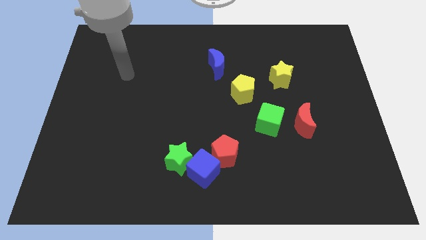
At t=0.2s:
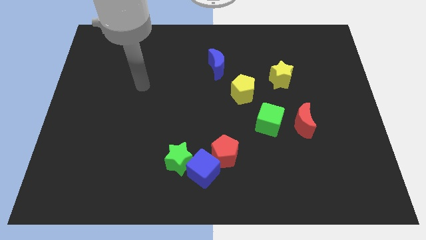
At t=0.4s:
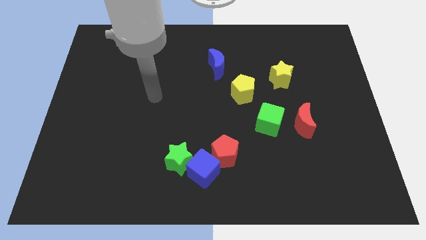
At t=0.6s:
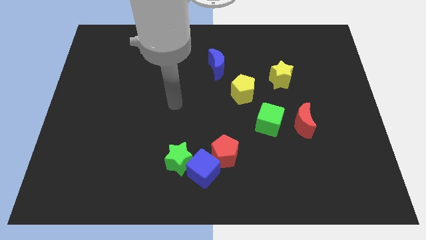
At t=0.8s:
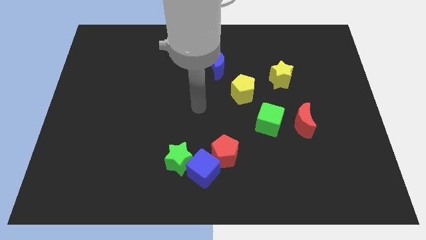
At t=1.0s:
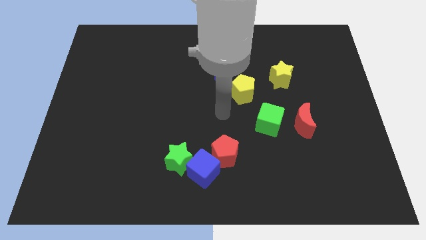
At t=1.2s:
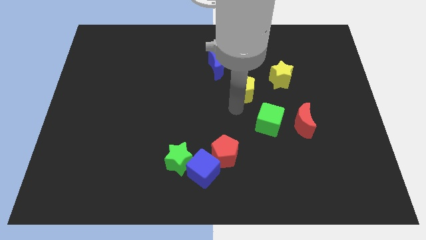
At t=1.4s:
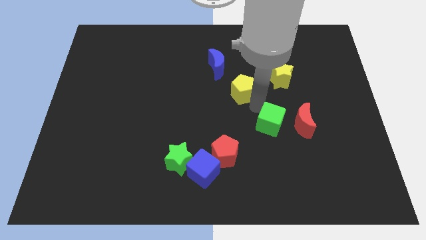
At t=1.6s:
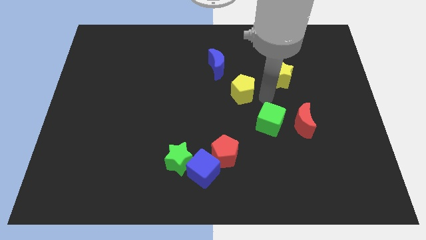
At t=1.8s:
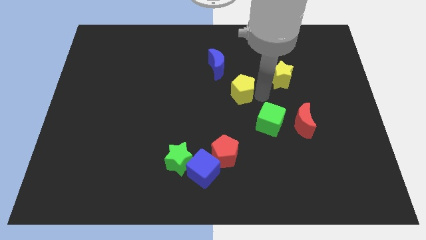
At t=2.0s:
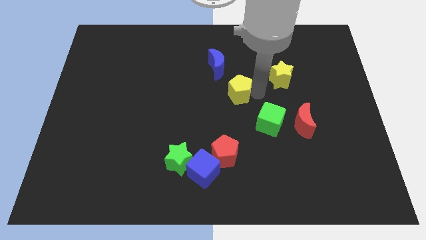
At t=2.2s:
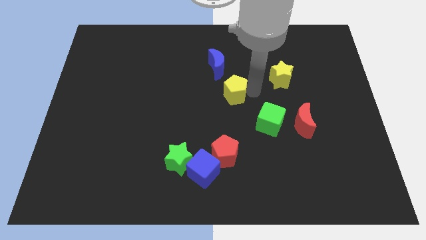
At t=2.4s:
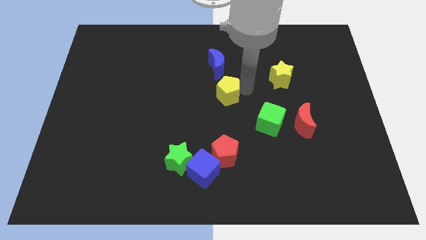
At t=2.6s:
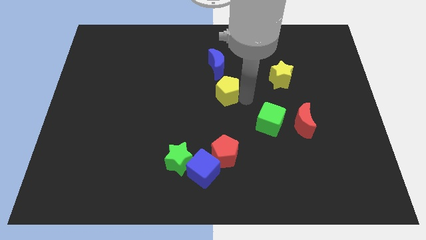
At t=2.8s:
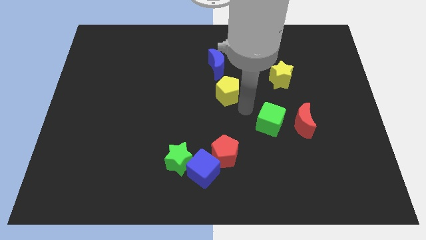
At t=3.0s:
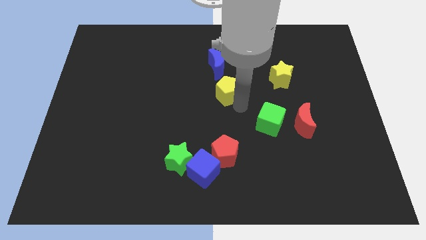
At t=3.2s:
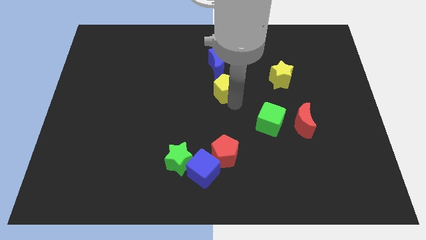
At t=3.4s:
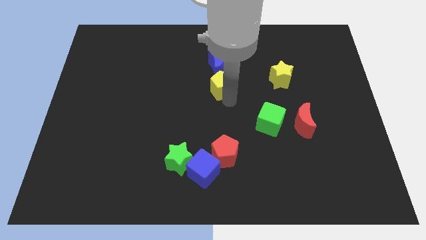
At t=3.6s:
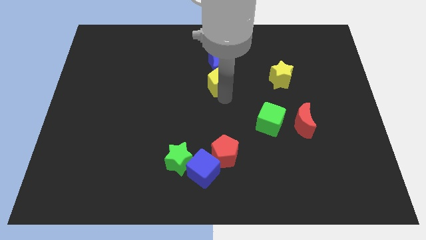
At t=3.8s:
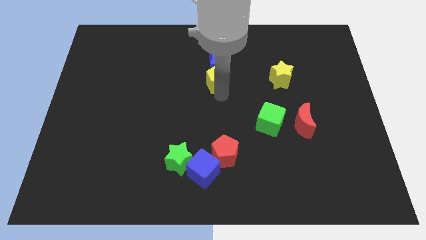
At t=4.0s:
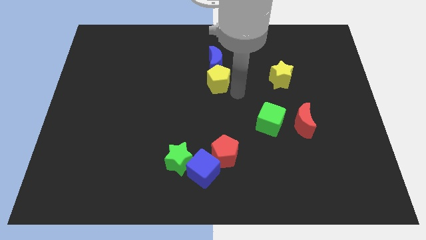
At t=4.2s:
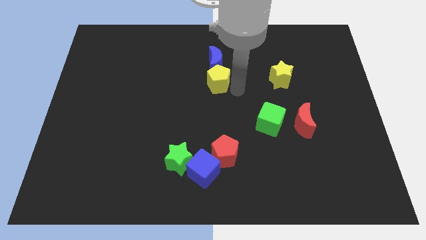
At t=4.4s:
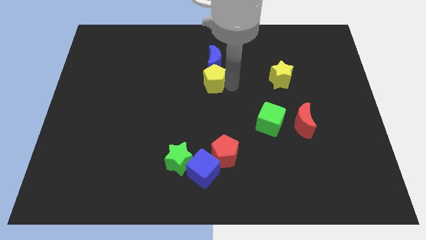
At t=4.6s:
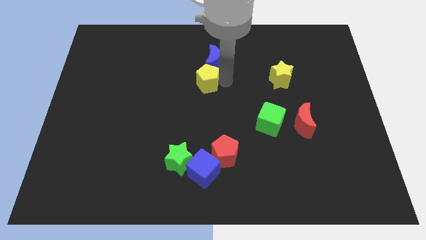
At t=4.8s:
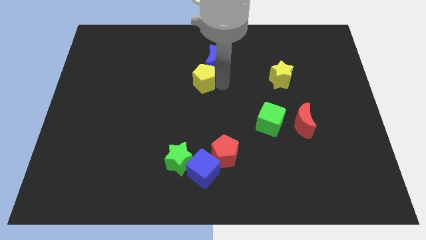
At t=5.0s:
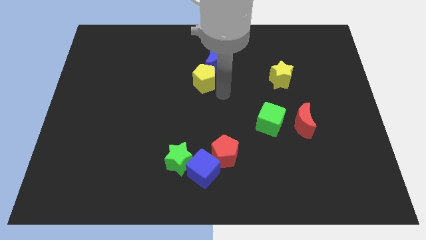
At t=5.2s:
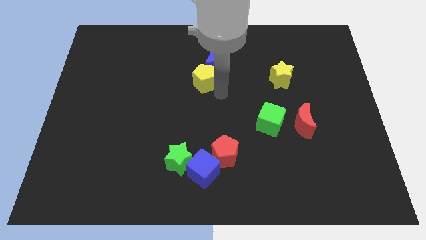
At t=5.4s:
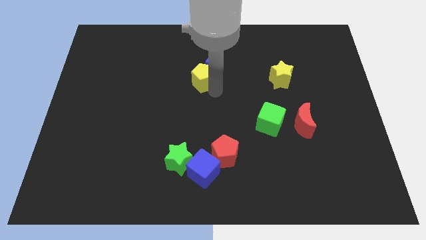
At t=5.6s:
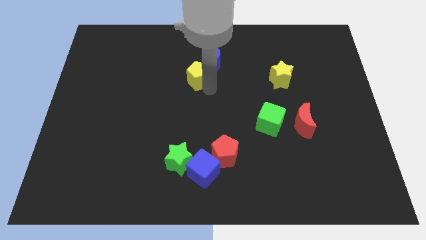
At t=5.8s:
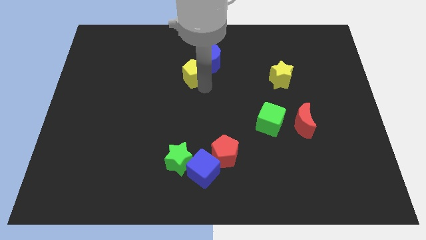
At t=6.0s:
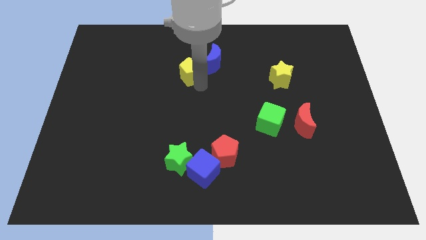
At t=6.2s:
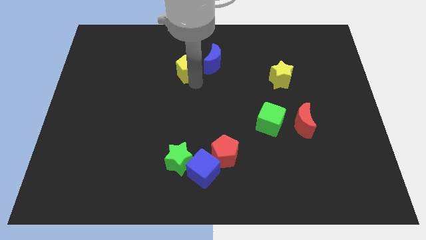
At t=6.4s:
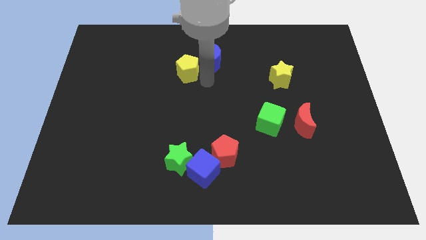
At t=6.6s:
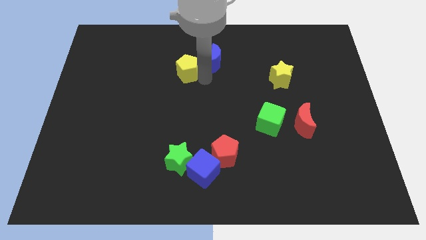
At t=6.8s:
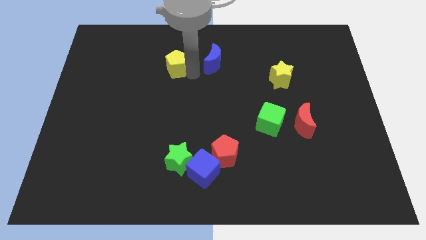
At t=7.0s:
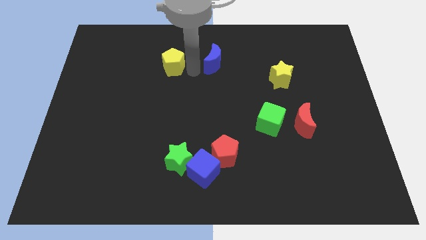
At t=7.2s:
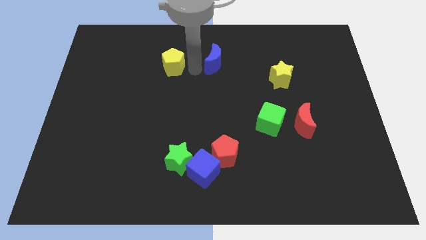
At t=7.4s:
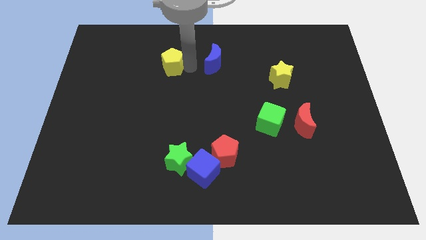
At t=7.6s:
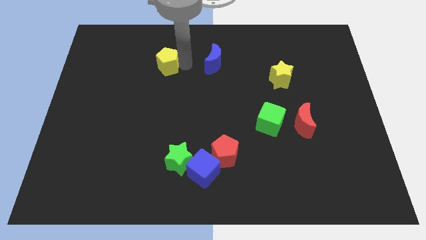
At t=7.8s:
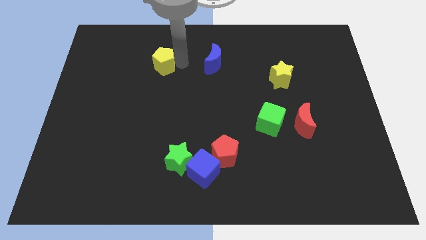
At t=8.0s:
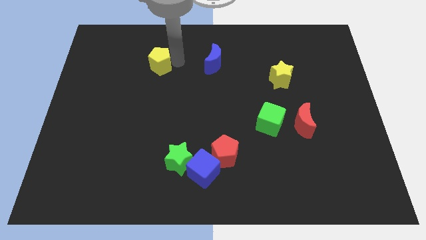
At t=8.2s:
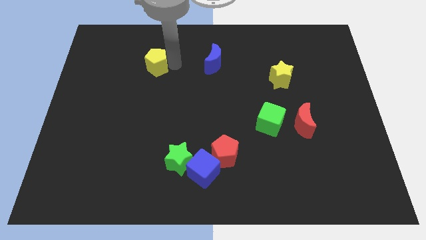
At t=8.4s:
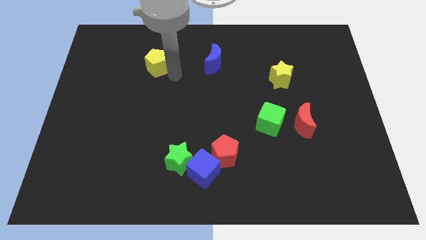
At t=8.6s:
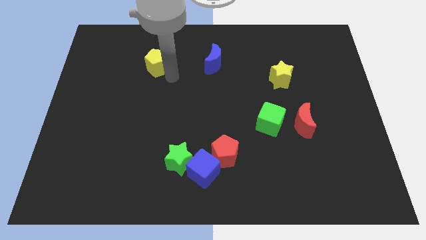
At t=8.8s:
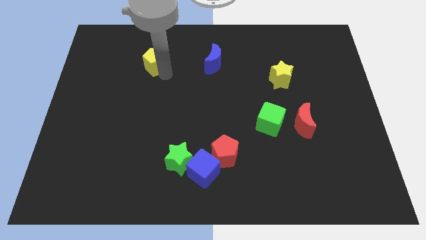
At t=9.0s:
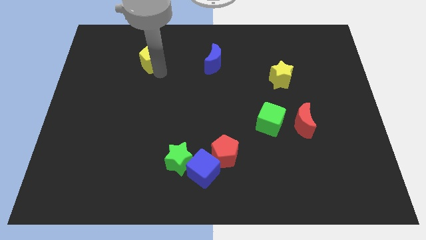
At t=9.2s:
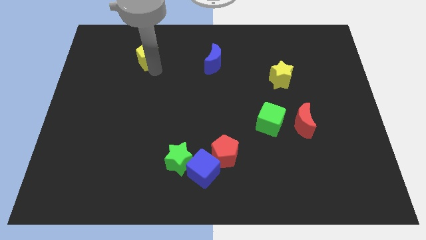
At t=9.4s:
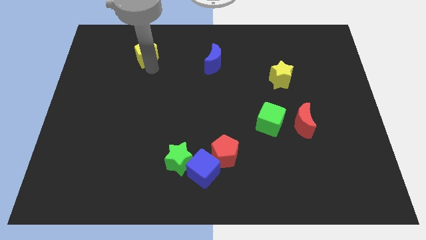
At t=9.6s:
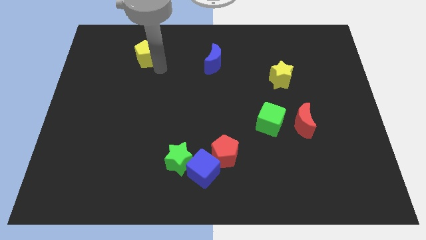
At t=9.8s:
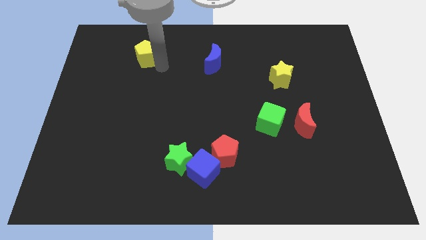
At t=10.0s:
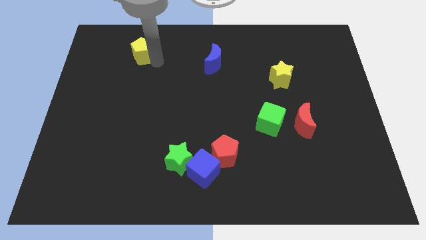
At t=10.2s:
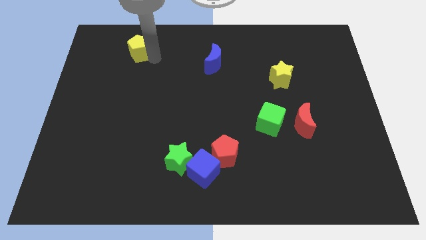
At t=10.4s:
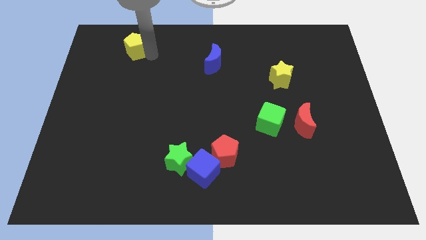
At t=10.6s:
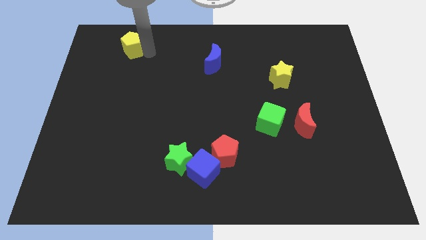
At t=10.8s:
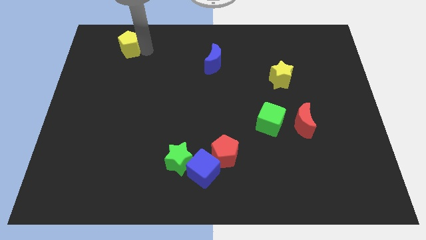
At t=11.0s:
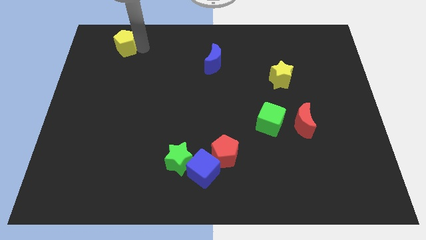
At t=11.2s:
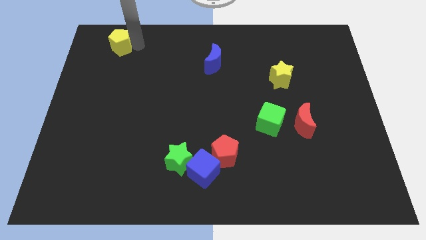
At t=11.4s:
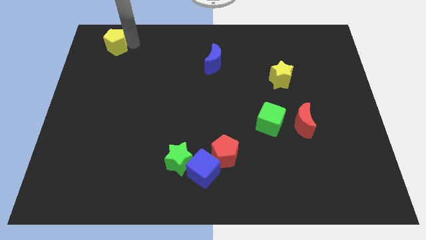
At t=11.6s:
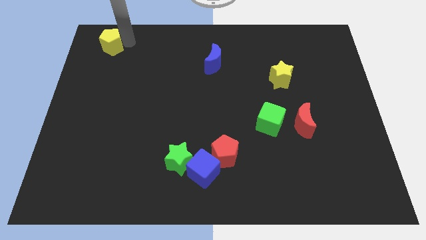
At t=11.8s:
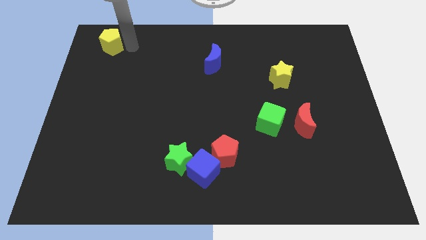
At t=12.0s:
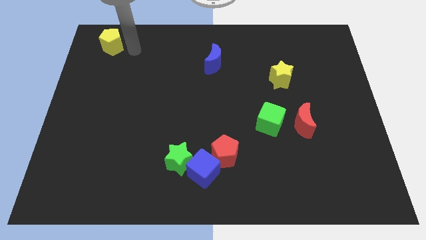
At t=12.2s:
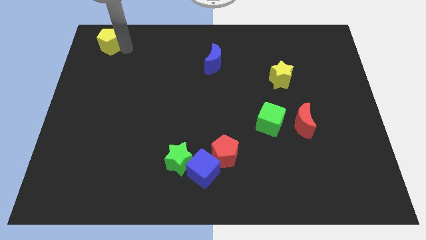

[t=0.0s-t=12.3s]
slide the yellow pentagon to the top left of the board

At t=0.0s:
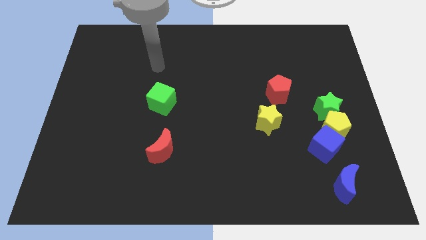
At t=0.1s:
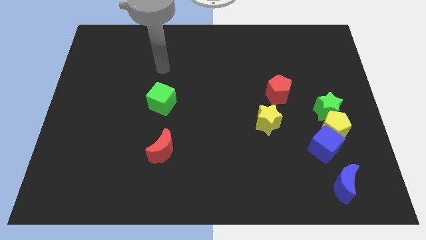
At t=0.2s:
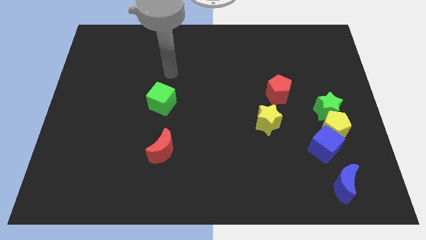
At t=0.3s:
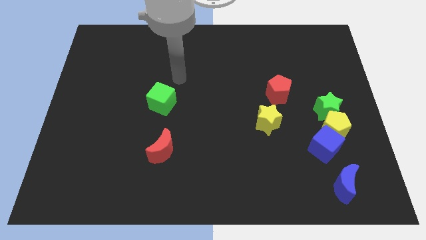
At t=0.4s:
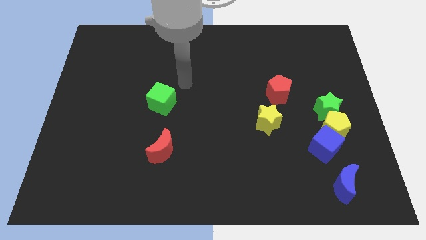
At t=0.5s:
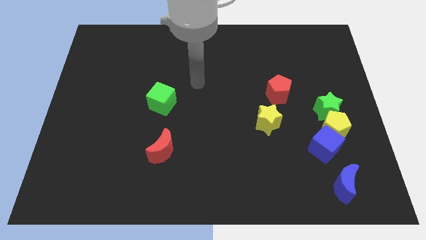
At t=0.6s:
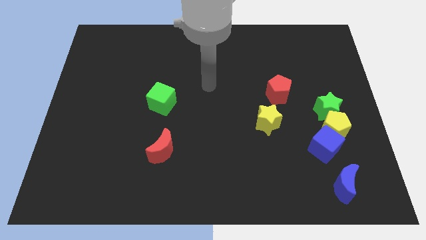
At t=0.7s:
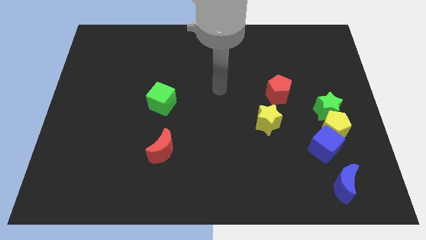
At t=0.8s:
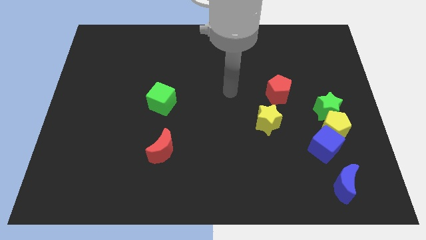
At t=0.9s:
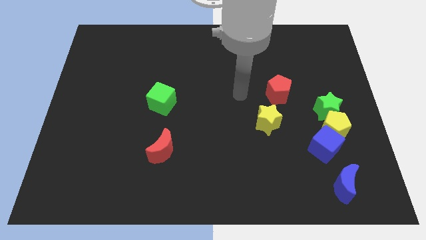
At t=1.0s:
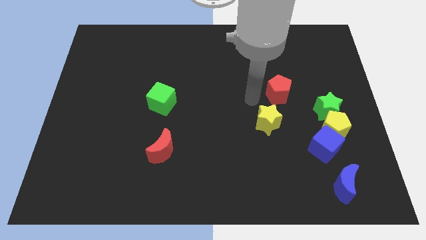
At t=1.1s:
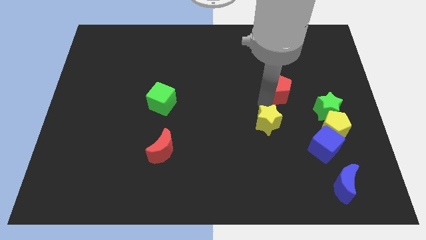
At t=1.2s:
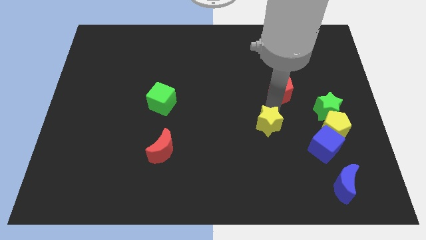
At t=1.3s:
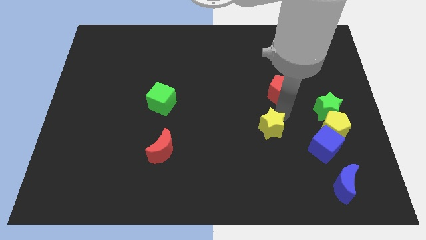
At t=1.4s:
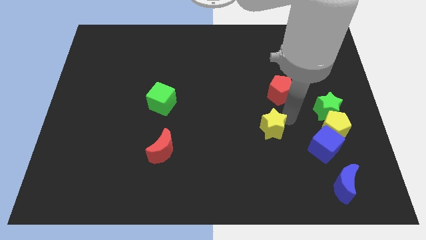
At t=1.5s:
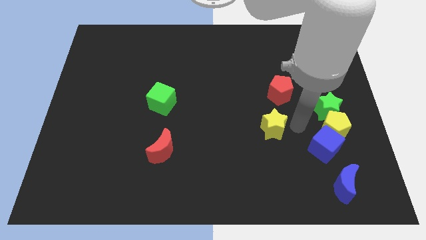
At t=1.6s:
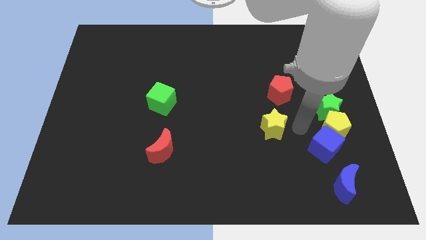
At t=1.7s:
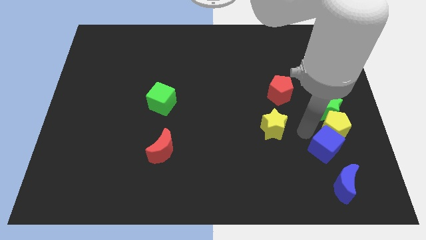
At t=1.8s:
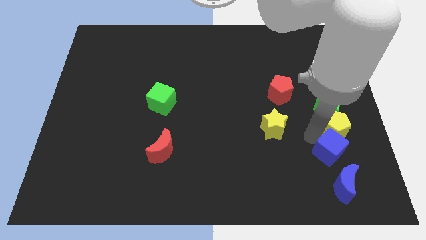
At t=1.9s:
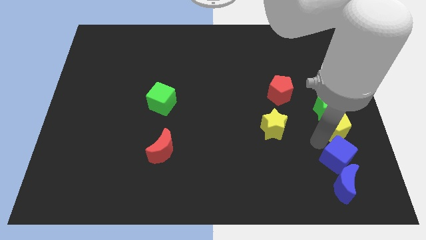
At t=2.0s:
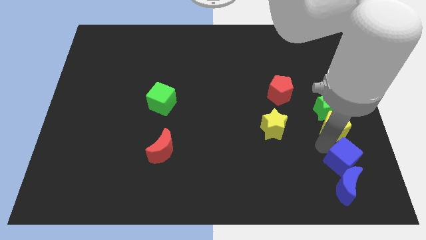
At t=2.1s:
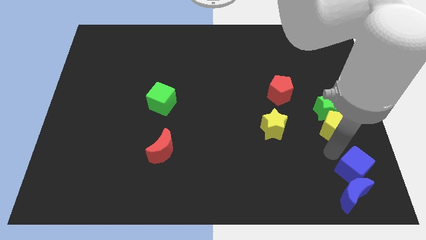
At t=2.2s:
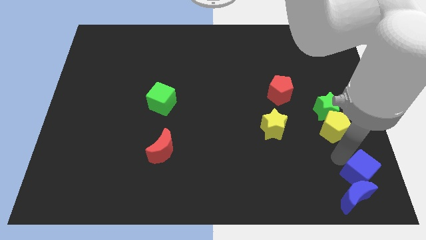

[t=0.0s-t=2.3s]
push the blue cube to the bottom right of the board
